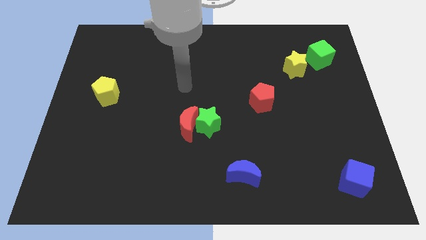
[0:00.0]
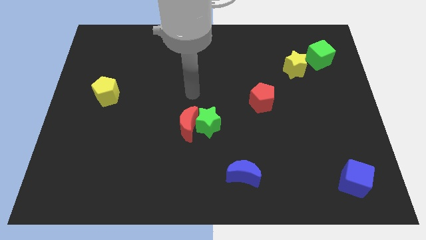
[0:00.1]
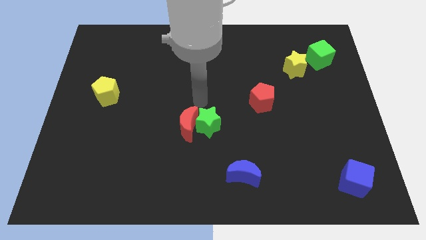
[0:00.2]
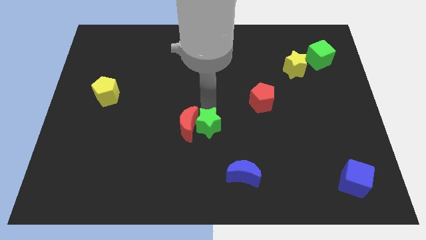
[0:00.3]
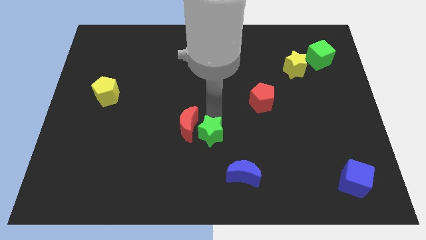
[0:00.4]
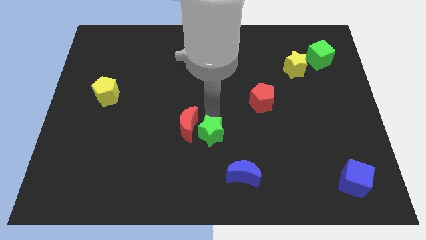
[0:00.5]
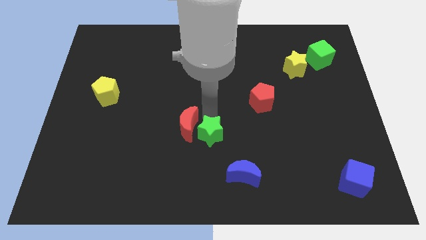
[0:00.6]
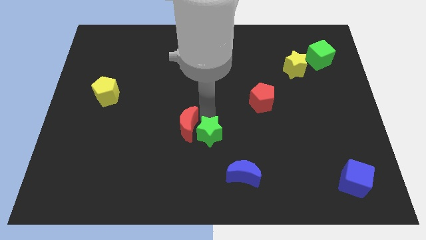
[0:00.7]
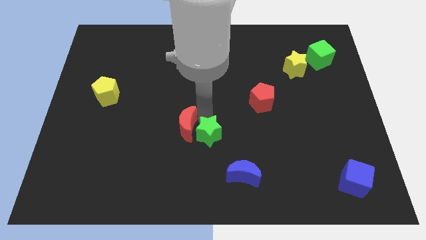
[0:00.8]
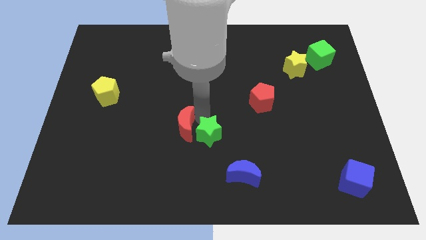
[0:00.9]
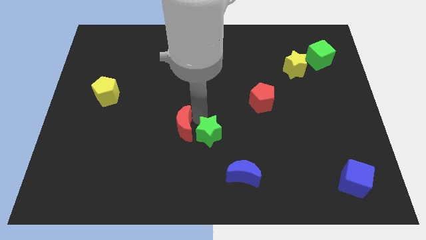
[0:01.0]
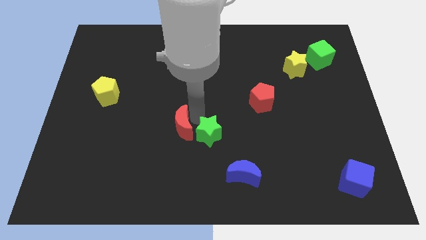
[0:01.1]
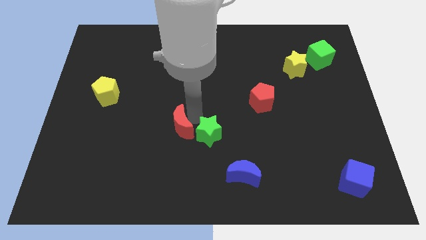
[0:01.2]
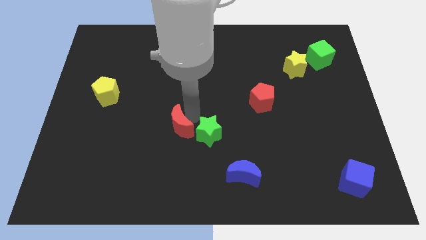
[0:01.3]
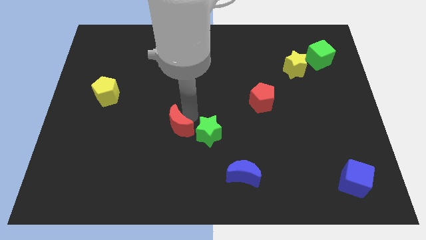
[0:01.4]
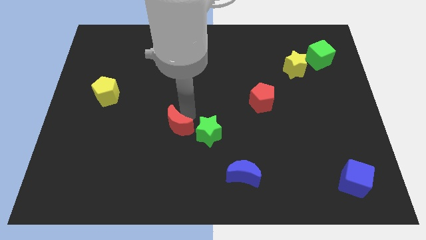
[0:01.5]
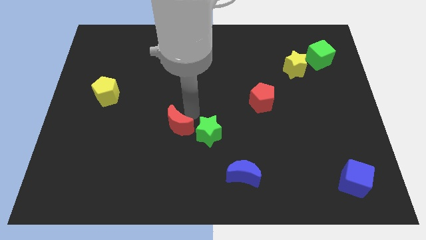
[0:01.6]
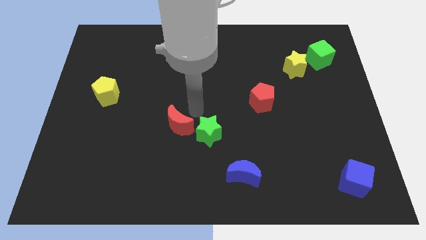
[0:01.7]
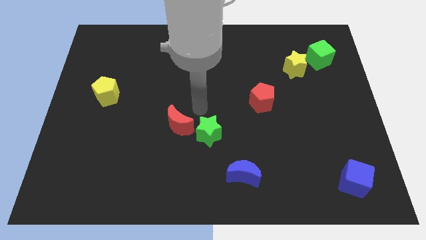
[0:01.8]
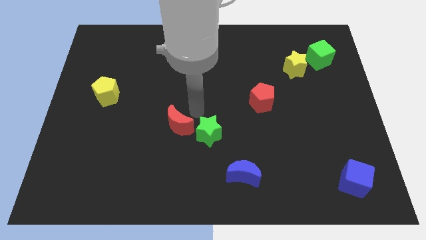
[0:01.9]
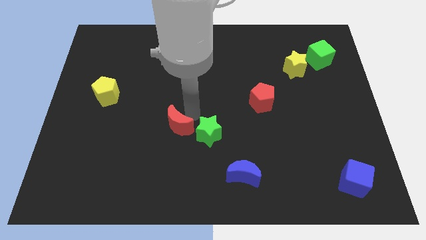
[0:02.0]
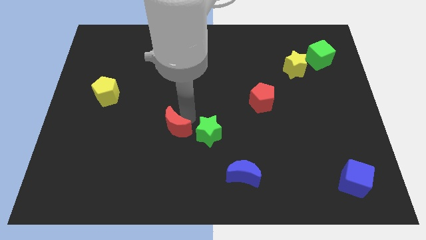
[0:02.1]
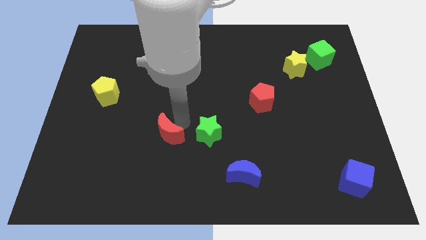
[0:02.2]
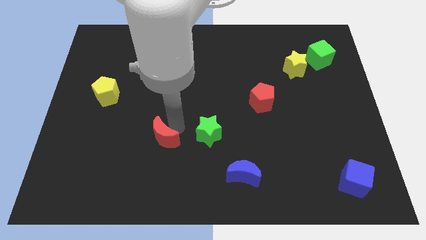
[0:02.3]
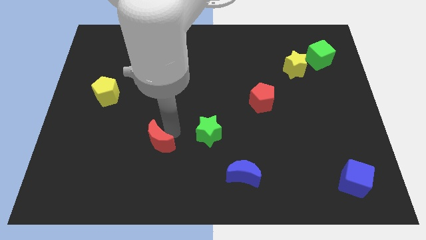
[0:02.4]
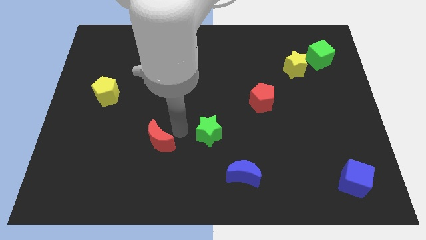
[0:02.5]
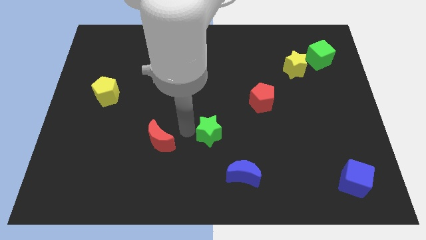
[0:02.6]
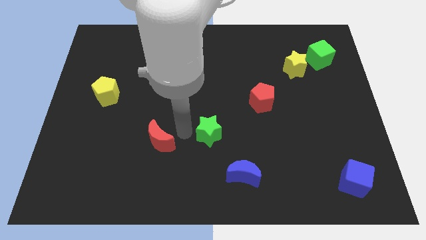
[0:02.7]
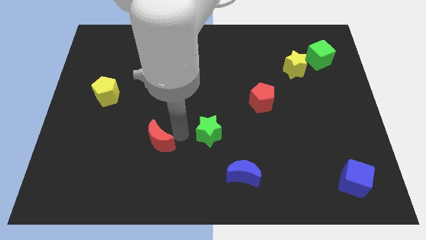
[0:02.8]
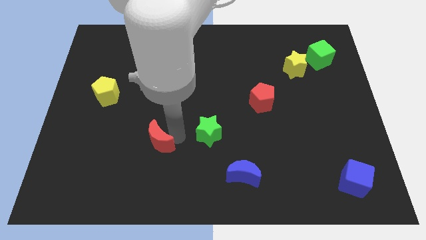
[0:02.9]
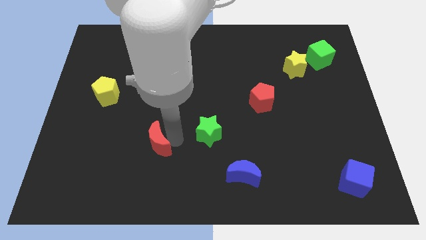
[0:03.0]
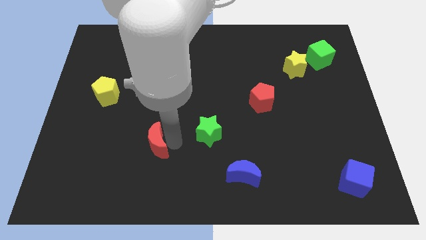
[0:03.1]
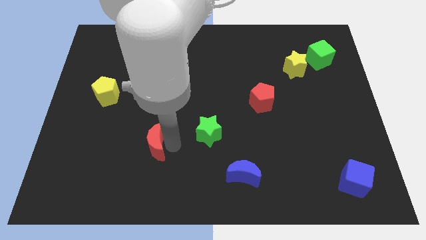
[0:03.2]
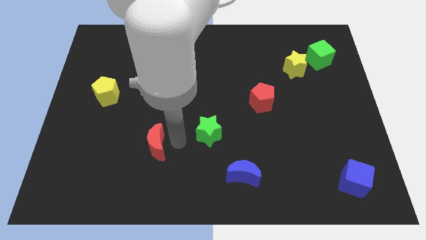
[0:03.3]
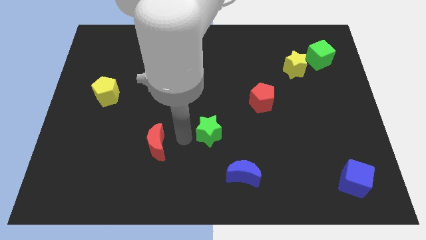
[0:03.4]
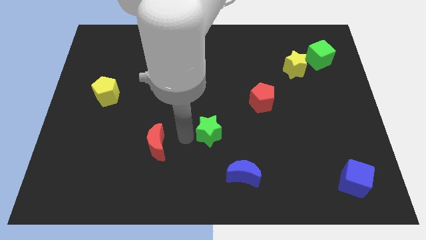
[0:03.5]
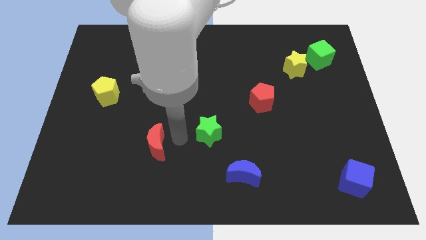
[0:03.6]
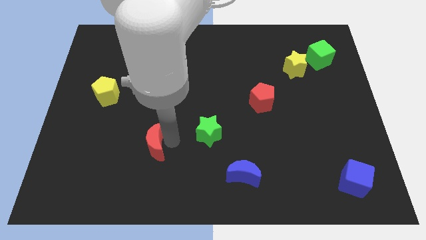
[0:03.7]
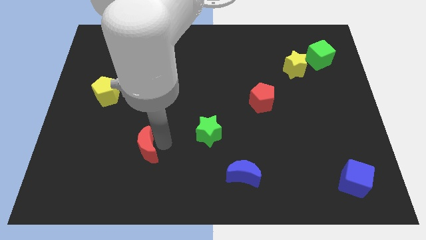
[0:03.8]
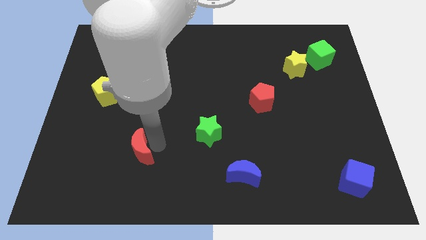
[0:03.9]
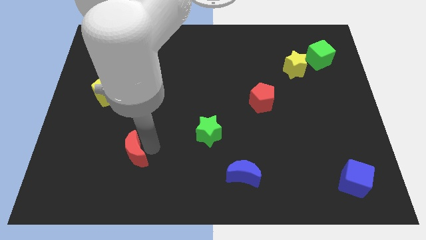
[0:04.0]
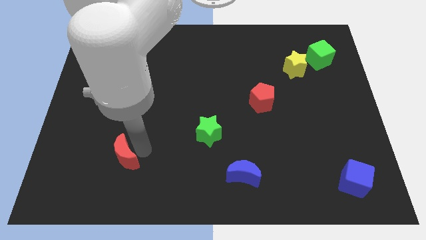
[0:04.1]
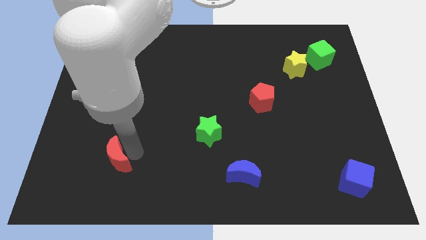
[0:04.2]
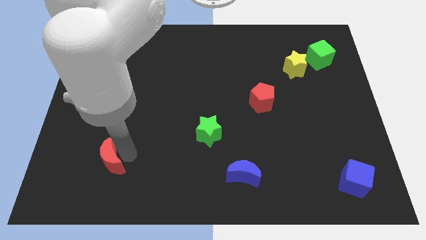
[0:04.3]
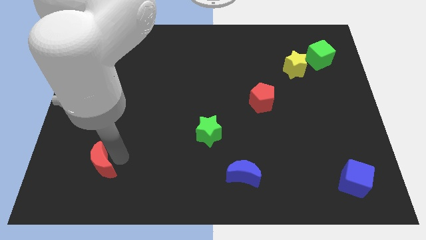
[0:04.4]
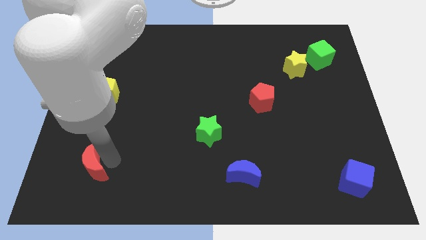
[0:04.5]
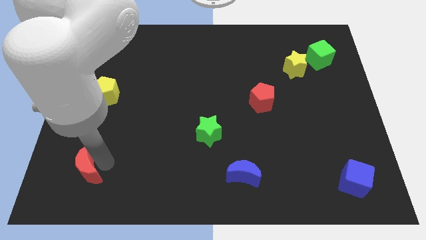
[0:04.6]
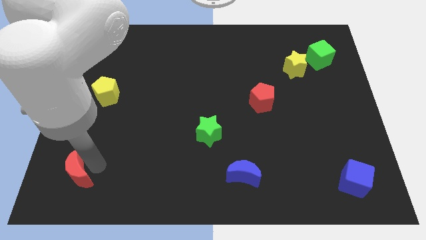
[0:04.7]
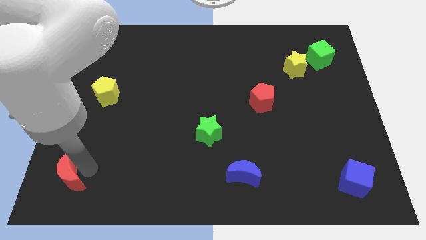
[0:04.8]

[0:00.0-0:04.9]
put the red moon to the bottom left of the board

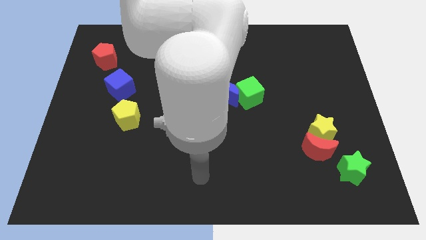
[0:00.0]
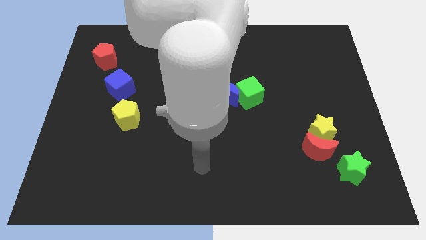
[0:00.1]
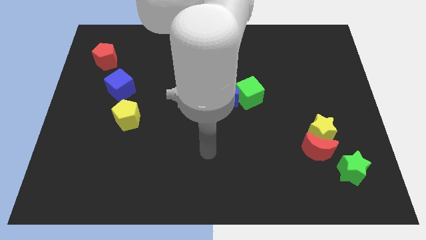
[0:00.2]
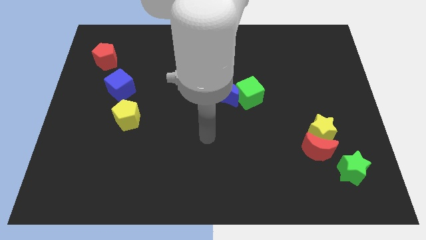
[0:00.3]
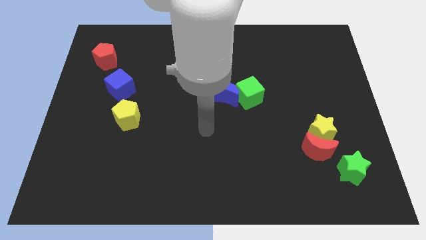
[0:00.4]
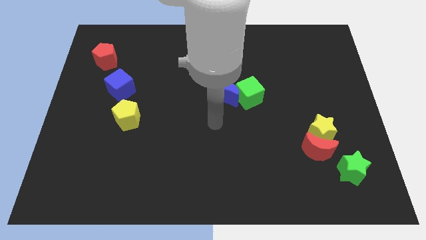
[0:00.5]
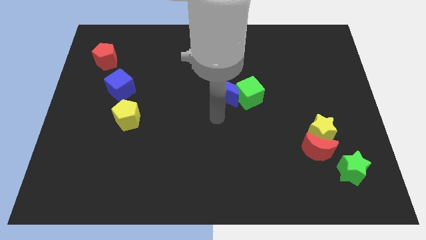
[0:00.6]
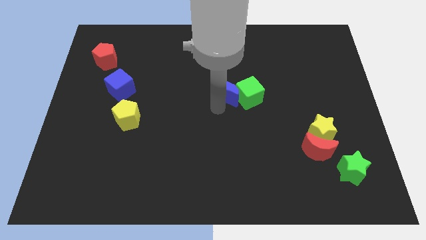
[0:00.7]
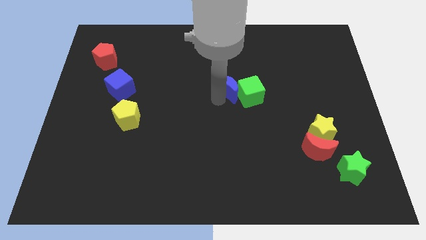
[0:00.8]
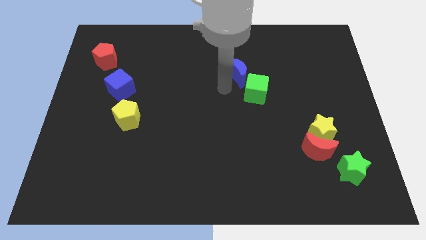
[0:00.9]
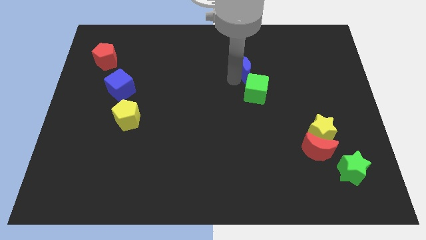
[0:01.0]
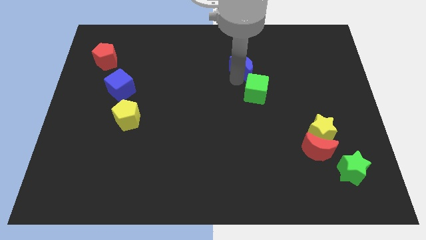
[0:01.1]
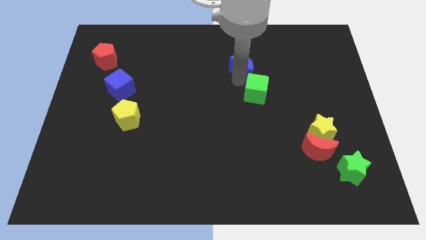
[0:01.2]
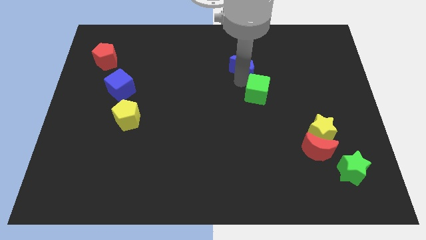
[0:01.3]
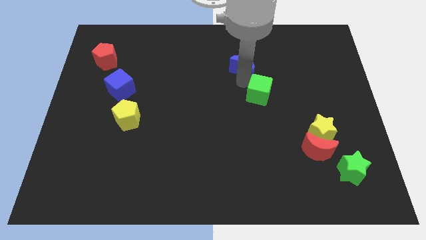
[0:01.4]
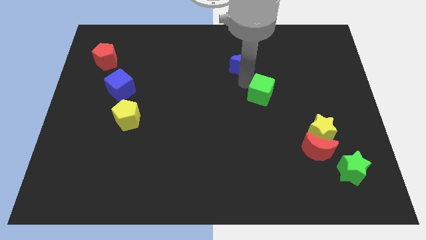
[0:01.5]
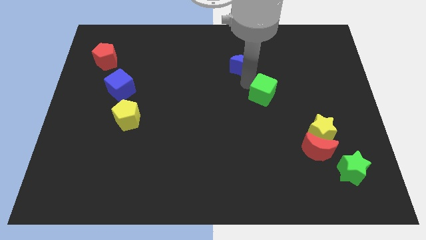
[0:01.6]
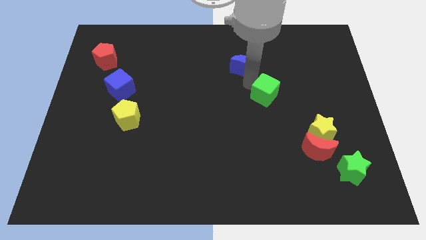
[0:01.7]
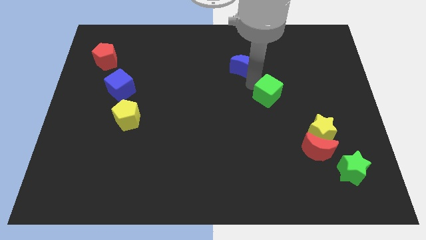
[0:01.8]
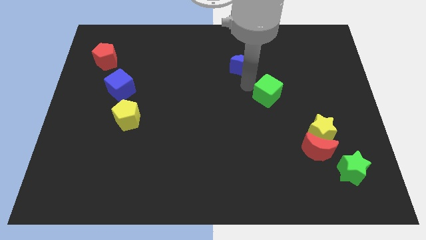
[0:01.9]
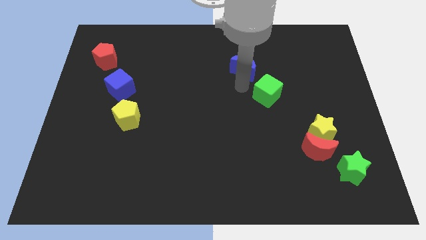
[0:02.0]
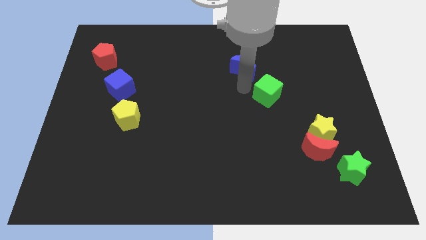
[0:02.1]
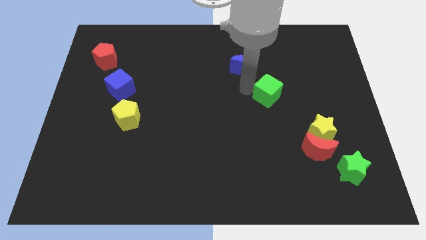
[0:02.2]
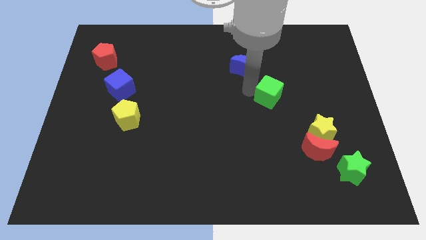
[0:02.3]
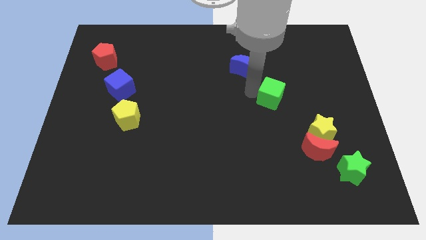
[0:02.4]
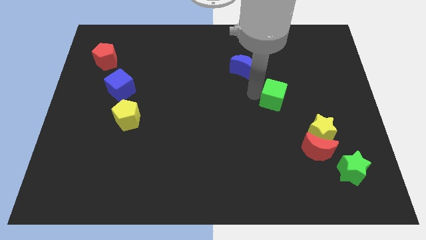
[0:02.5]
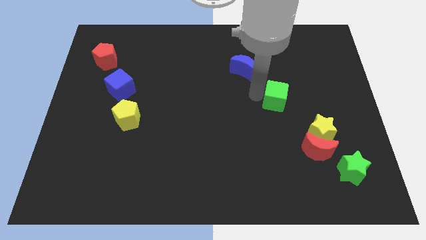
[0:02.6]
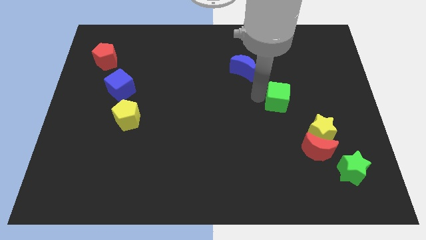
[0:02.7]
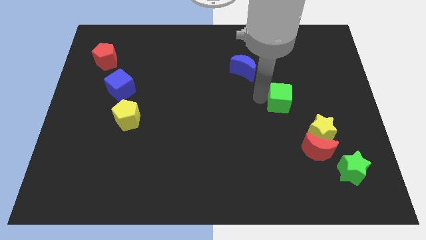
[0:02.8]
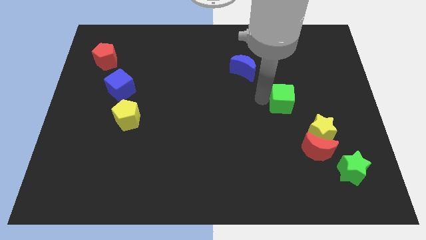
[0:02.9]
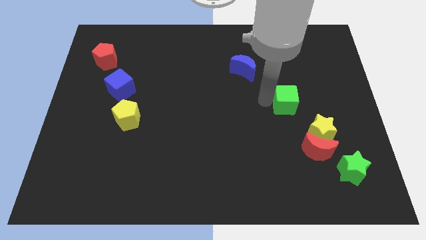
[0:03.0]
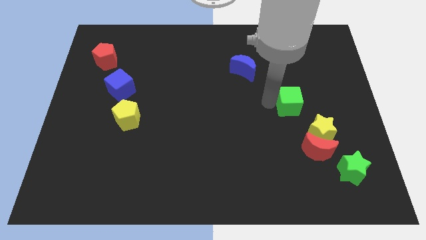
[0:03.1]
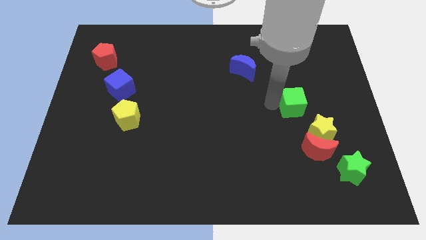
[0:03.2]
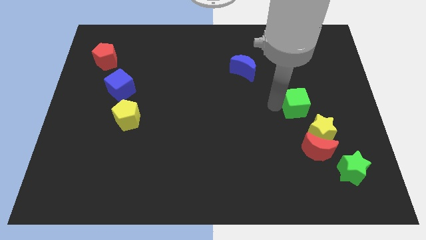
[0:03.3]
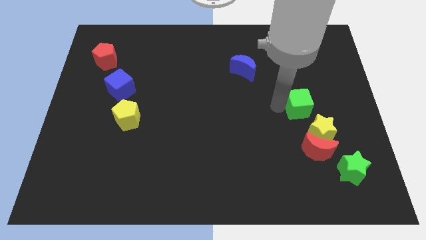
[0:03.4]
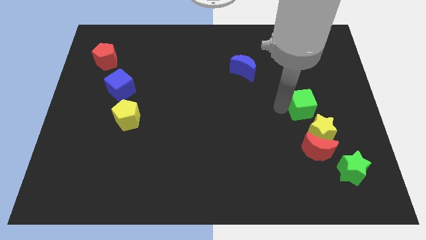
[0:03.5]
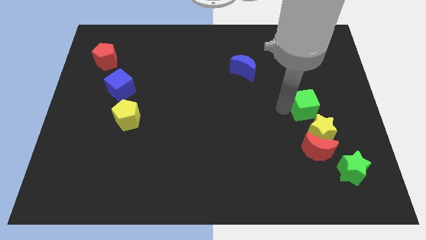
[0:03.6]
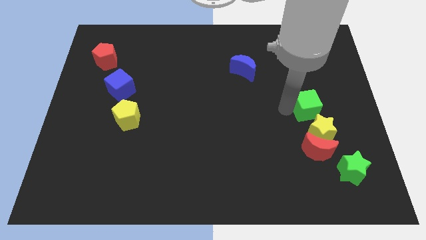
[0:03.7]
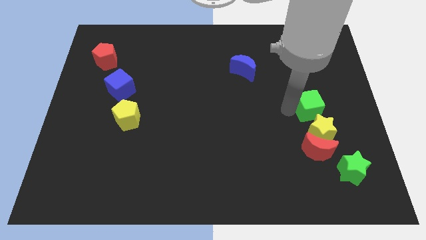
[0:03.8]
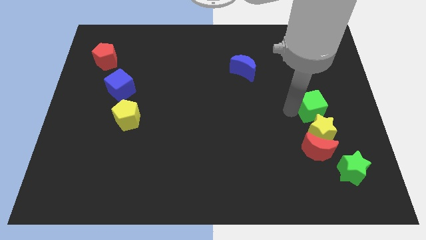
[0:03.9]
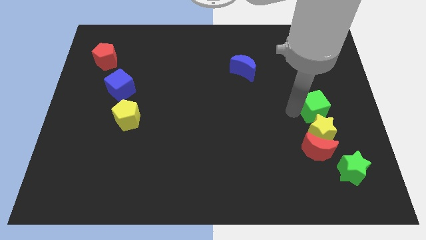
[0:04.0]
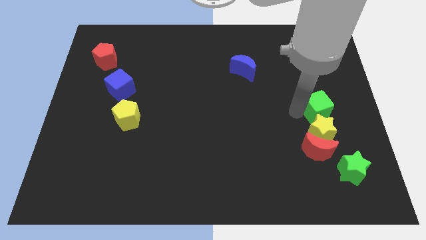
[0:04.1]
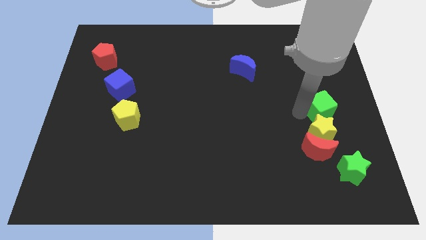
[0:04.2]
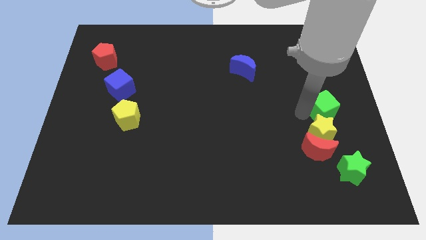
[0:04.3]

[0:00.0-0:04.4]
put the green cube to the right side
